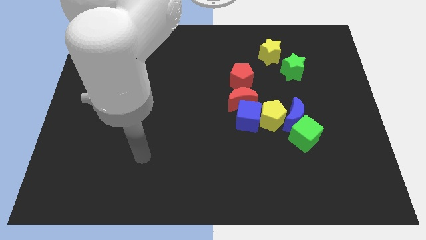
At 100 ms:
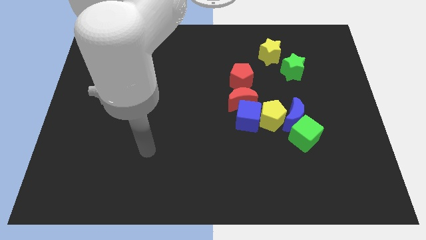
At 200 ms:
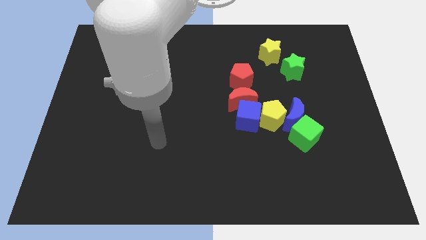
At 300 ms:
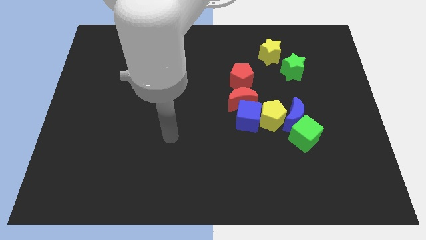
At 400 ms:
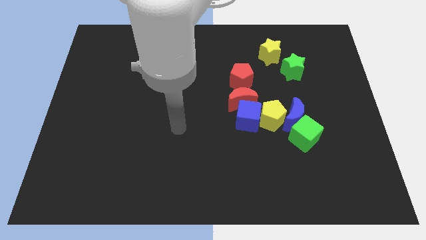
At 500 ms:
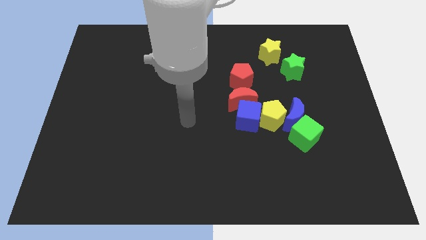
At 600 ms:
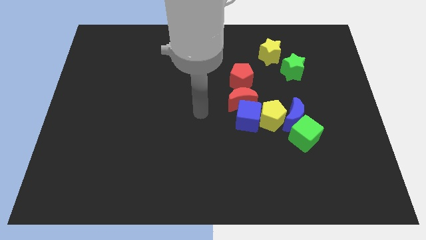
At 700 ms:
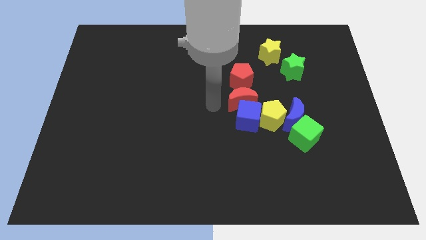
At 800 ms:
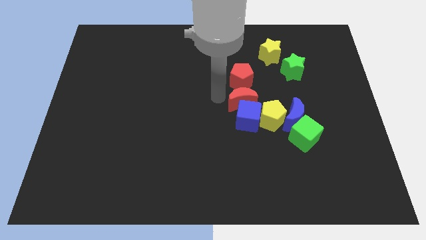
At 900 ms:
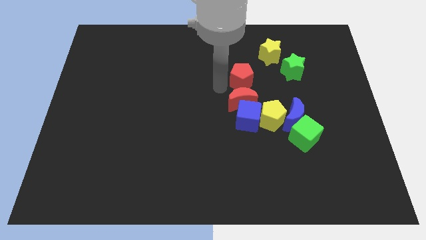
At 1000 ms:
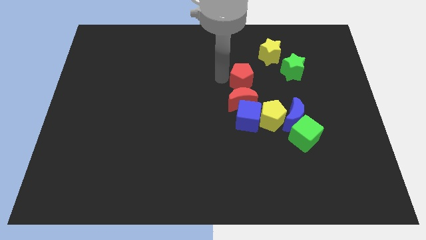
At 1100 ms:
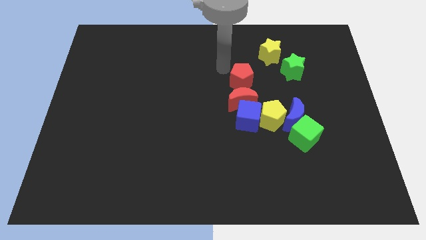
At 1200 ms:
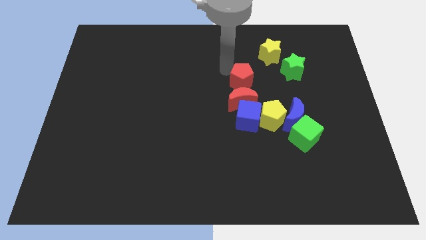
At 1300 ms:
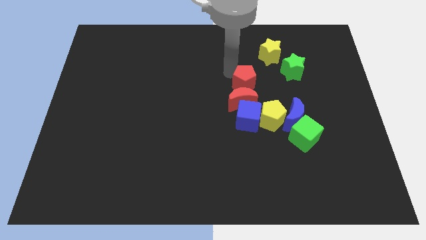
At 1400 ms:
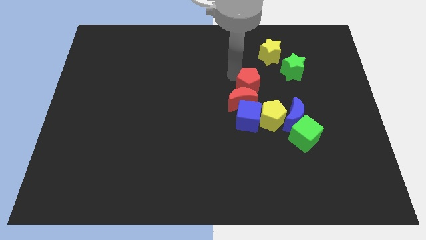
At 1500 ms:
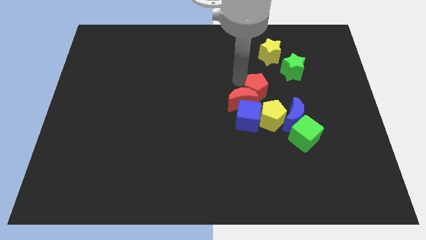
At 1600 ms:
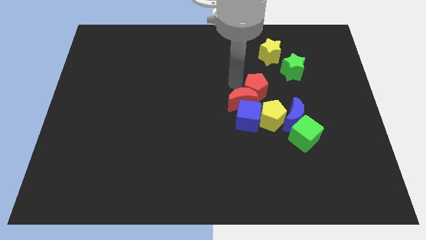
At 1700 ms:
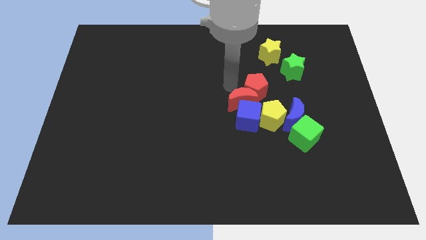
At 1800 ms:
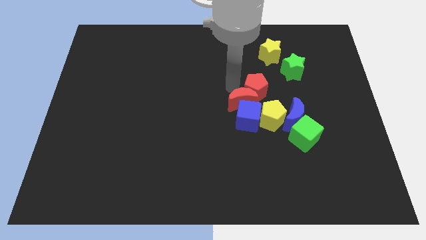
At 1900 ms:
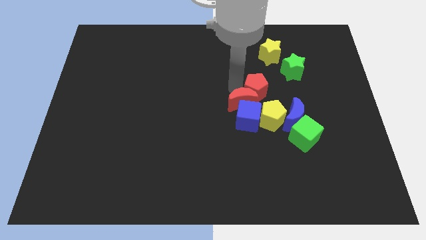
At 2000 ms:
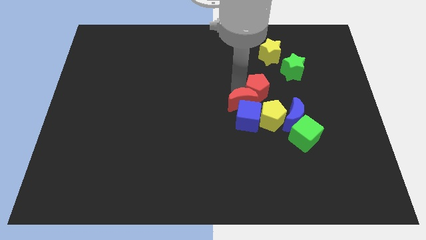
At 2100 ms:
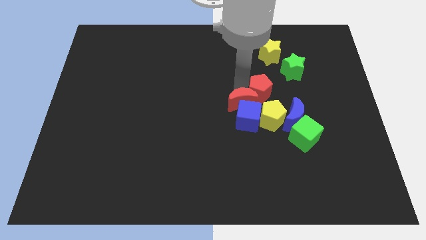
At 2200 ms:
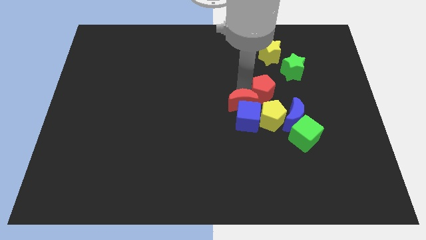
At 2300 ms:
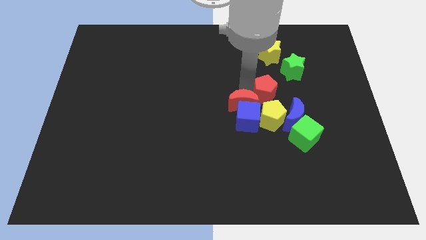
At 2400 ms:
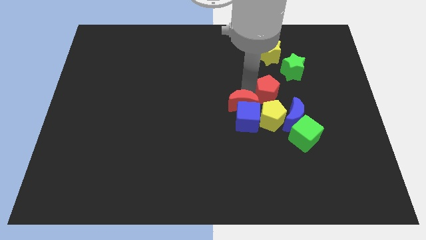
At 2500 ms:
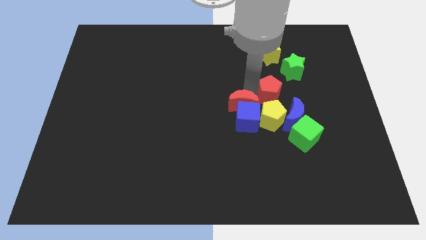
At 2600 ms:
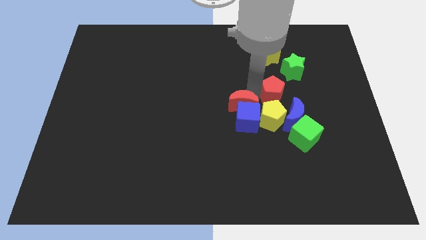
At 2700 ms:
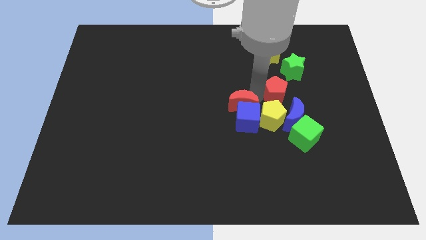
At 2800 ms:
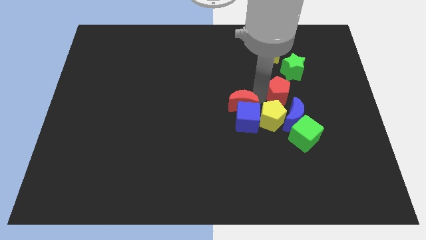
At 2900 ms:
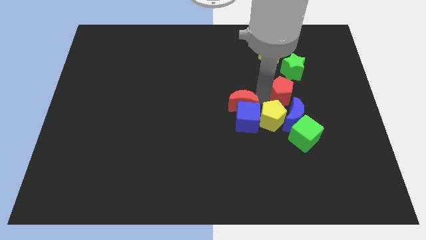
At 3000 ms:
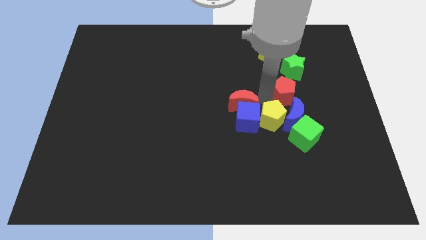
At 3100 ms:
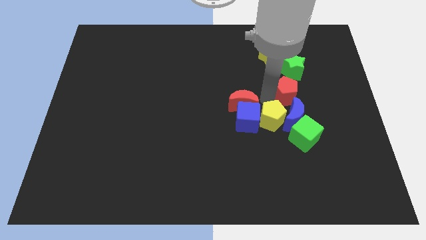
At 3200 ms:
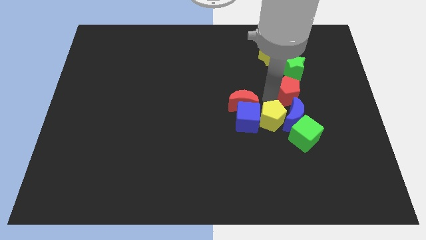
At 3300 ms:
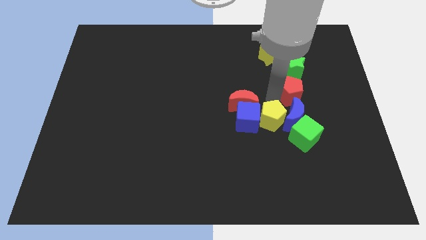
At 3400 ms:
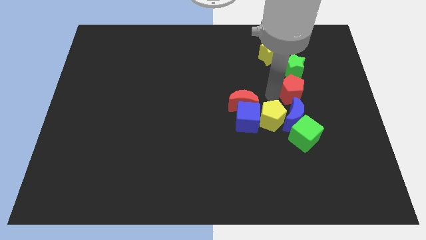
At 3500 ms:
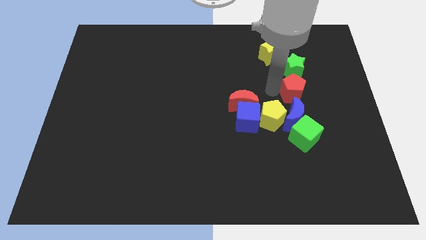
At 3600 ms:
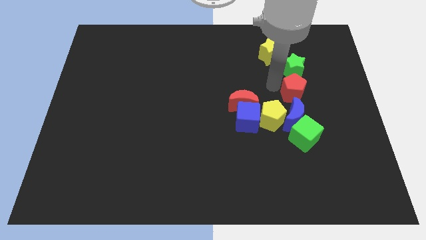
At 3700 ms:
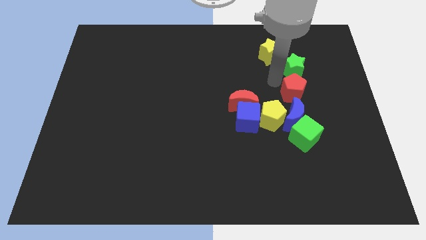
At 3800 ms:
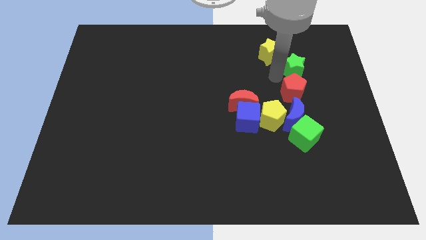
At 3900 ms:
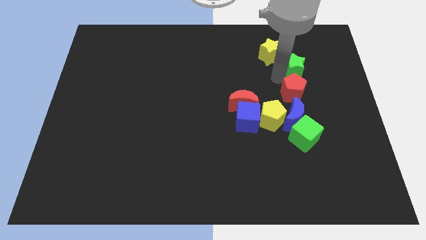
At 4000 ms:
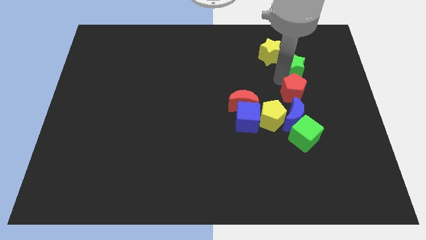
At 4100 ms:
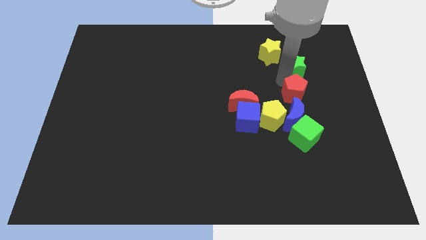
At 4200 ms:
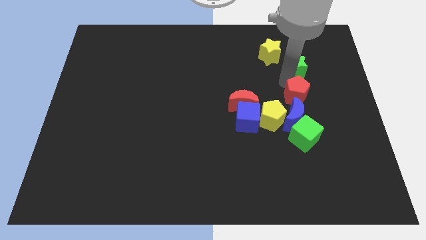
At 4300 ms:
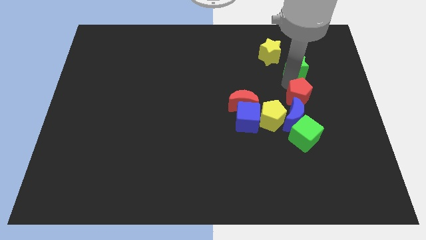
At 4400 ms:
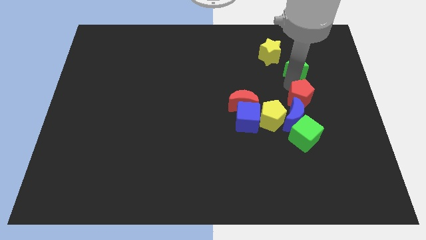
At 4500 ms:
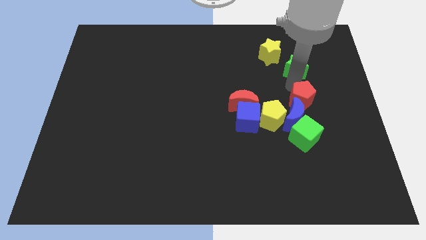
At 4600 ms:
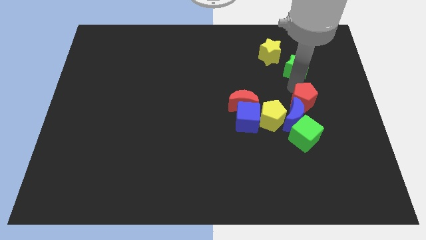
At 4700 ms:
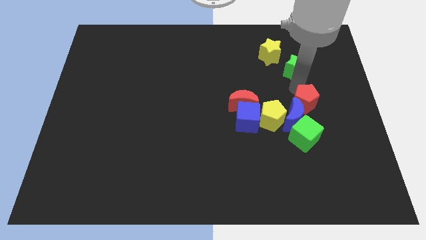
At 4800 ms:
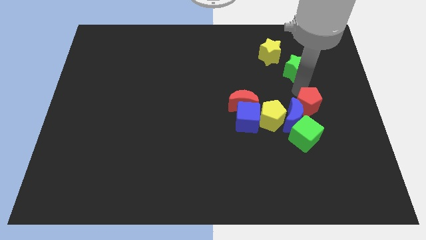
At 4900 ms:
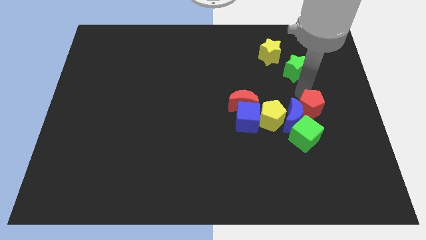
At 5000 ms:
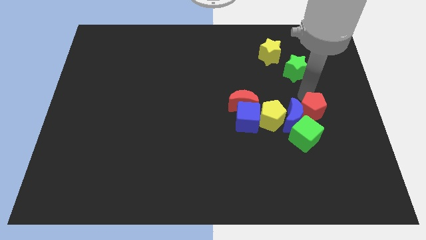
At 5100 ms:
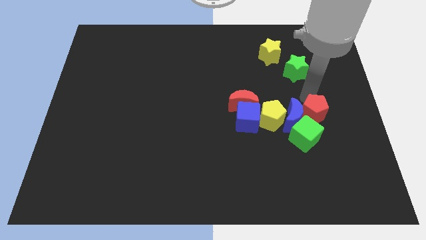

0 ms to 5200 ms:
move the red pentagon to the bottom right side of the blue moon

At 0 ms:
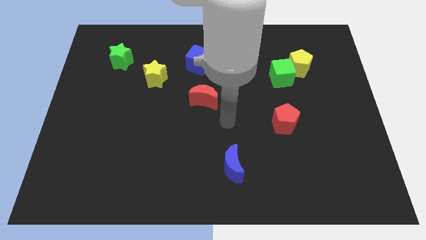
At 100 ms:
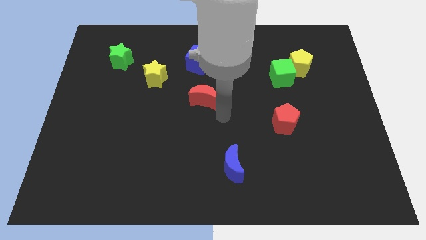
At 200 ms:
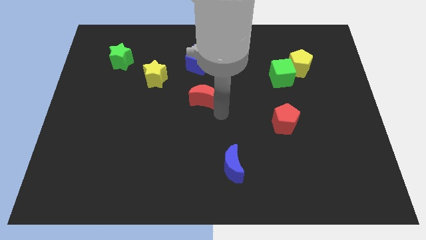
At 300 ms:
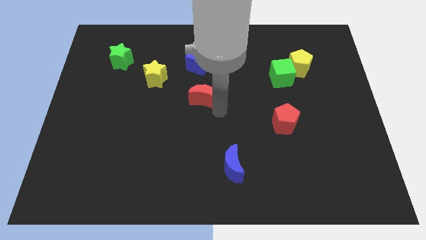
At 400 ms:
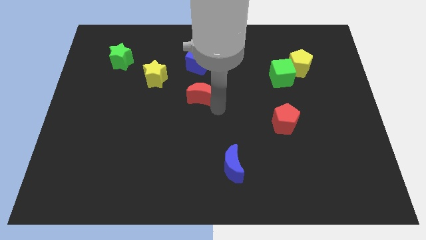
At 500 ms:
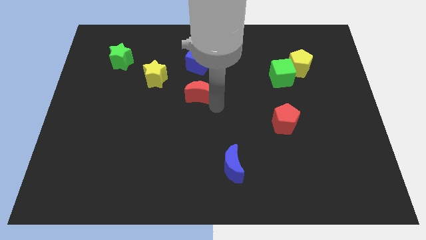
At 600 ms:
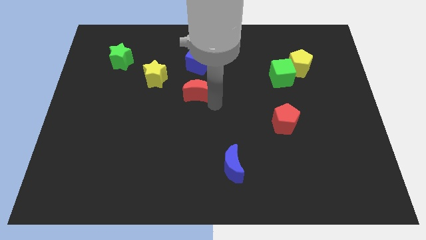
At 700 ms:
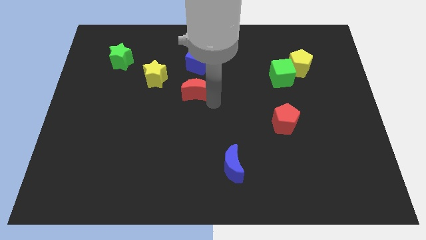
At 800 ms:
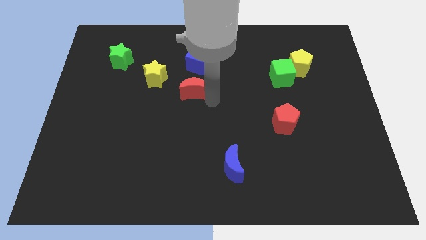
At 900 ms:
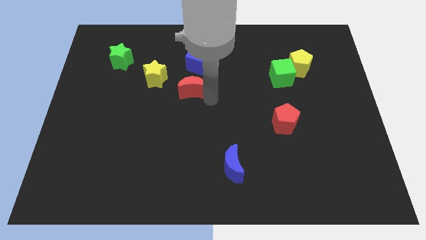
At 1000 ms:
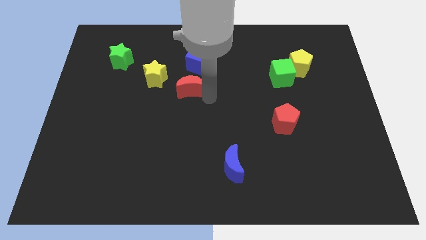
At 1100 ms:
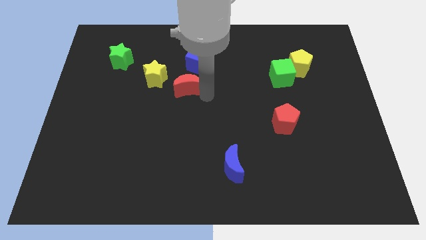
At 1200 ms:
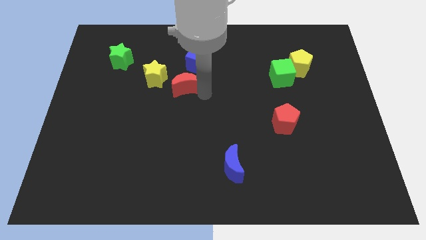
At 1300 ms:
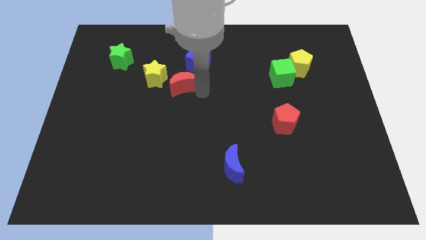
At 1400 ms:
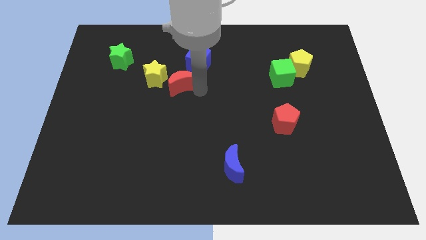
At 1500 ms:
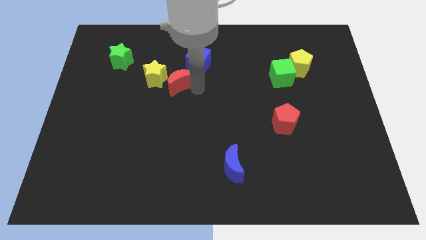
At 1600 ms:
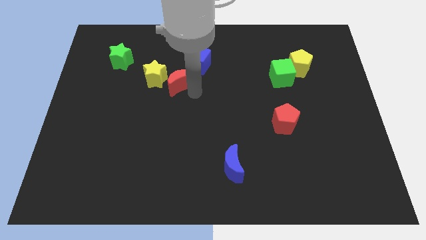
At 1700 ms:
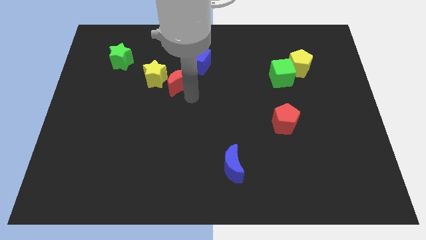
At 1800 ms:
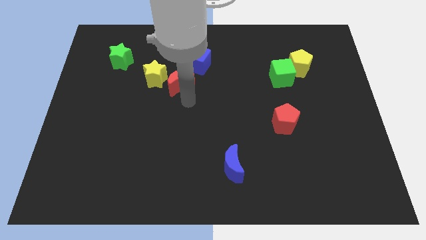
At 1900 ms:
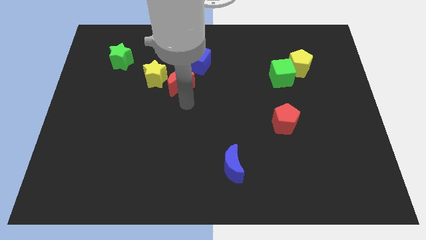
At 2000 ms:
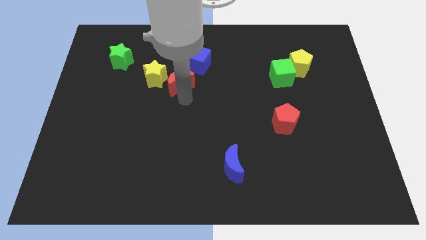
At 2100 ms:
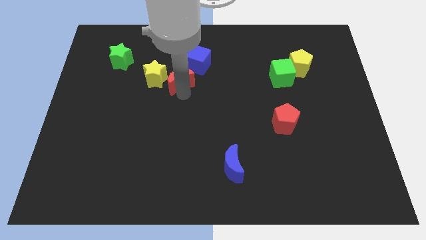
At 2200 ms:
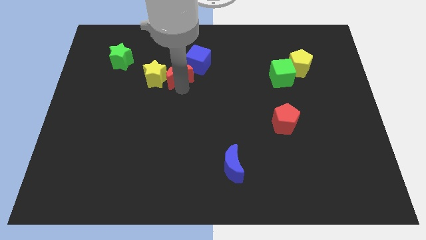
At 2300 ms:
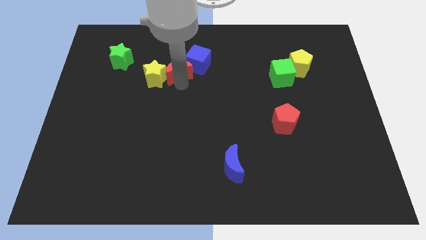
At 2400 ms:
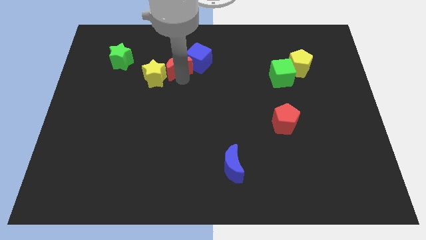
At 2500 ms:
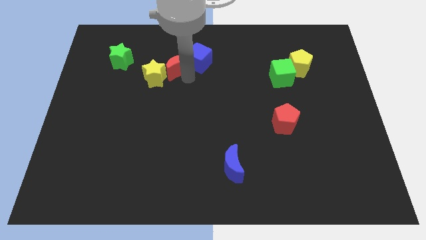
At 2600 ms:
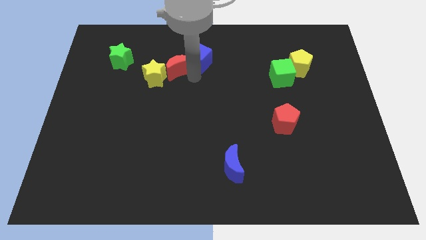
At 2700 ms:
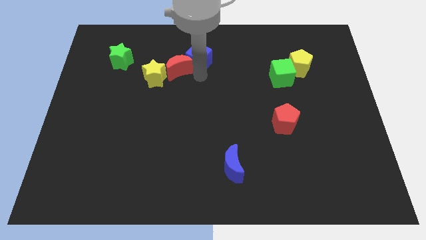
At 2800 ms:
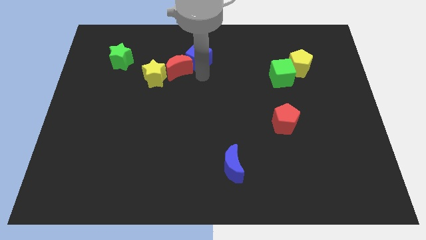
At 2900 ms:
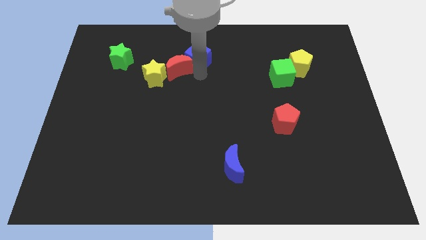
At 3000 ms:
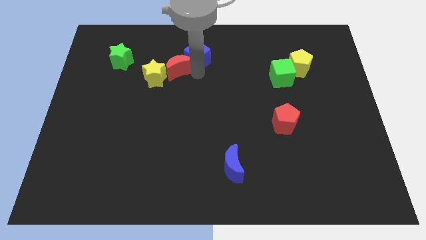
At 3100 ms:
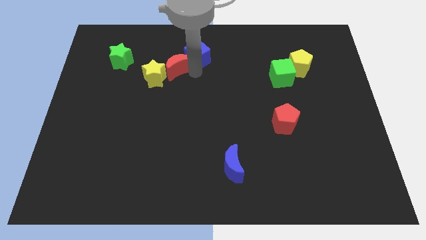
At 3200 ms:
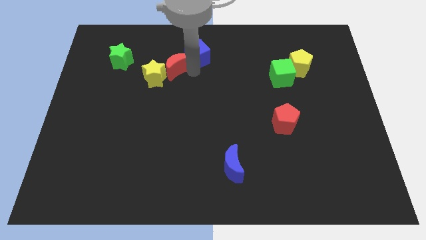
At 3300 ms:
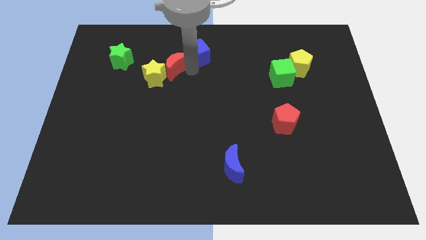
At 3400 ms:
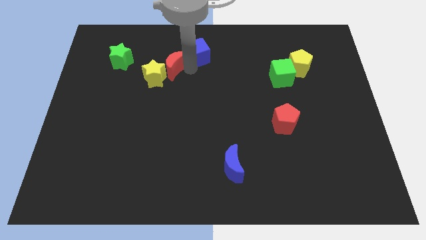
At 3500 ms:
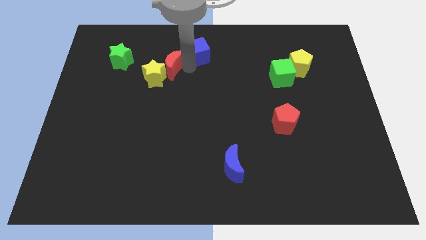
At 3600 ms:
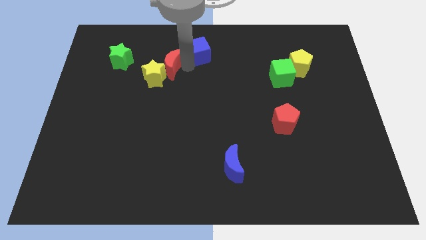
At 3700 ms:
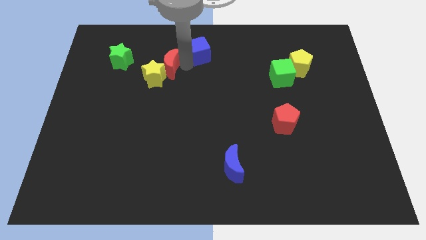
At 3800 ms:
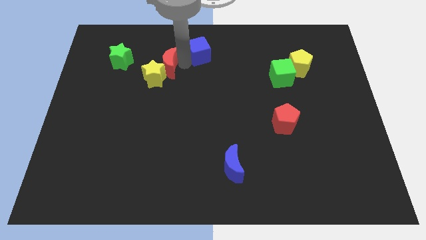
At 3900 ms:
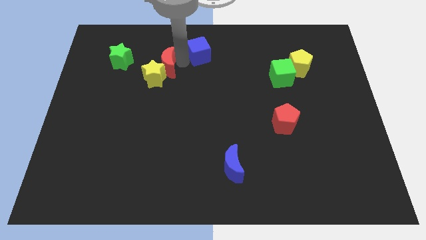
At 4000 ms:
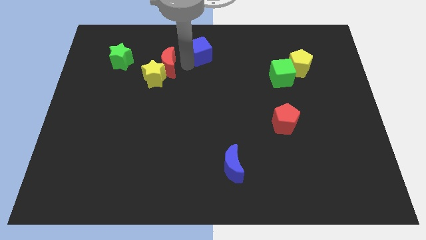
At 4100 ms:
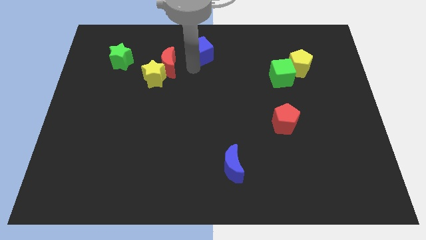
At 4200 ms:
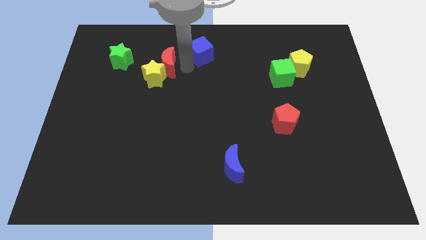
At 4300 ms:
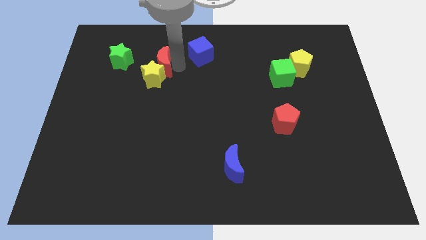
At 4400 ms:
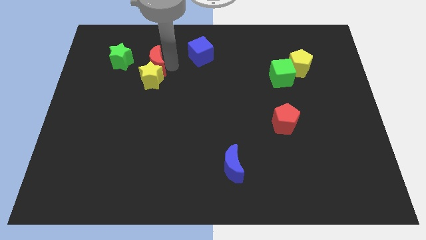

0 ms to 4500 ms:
move the red moon to the top left of the yellow star
